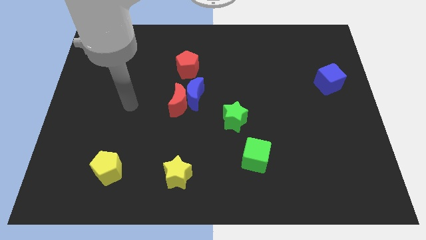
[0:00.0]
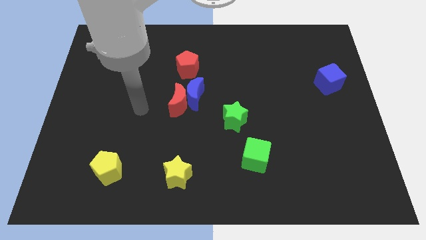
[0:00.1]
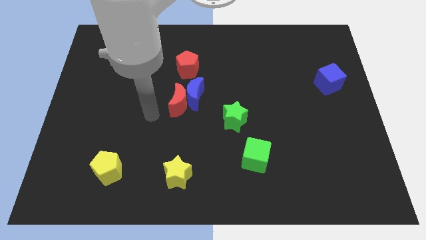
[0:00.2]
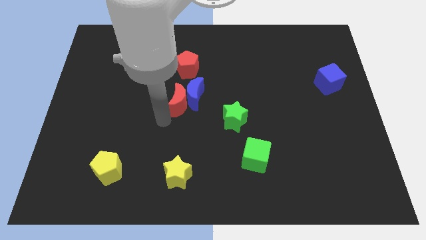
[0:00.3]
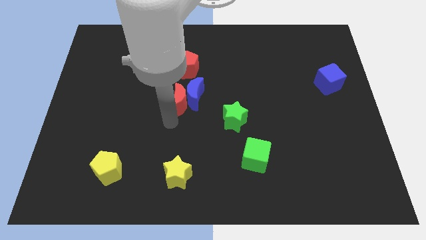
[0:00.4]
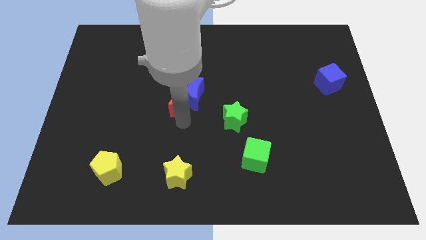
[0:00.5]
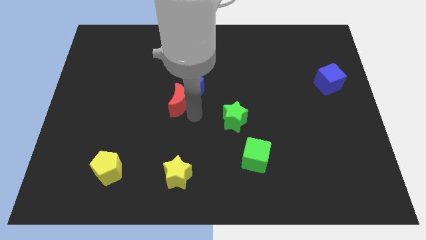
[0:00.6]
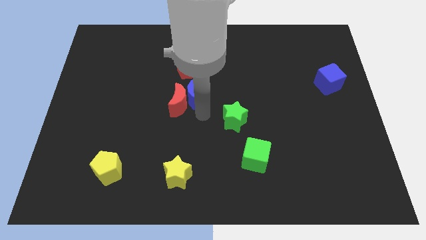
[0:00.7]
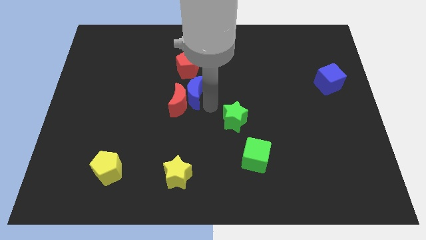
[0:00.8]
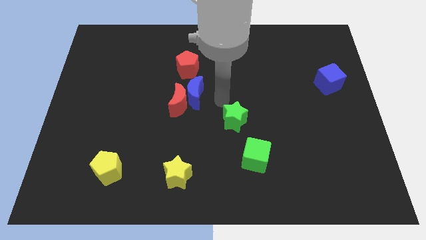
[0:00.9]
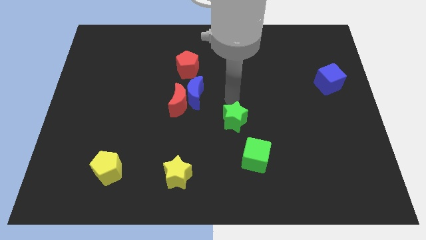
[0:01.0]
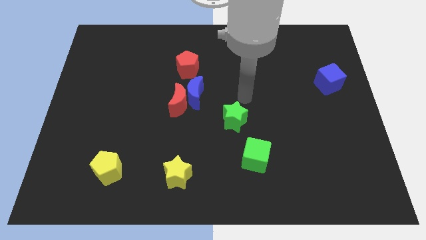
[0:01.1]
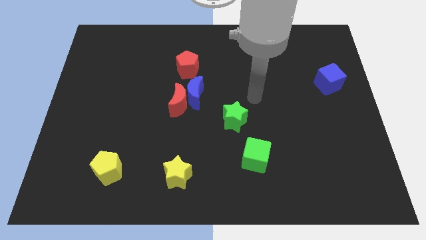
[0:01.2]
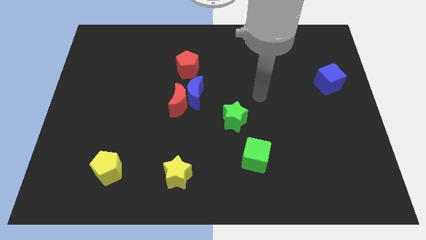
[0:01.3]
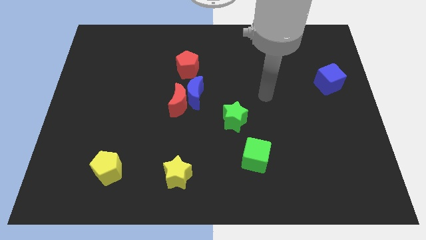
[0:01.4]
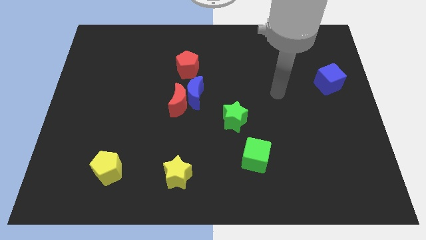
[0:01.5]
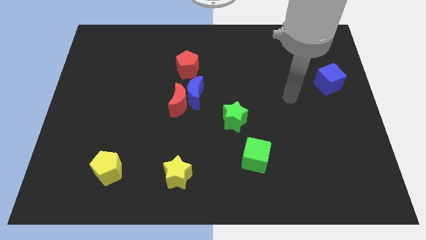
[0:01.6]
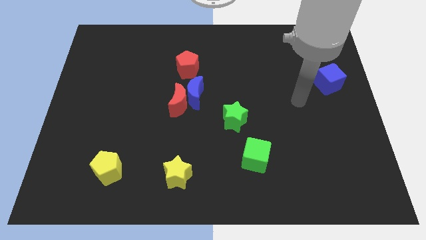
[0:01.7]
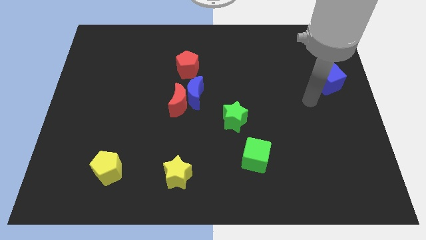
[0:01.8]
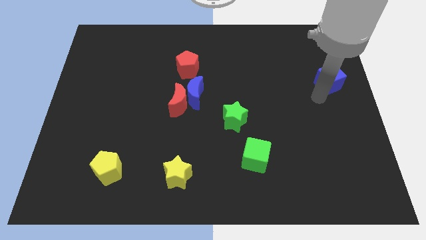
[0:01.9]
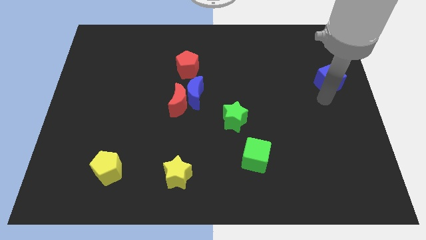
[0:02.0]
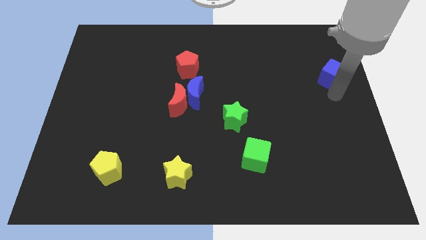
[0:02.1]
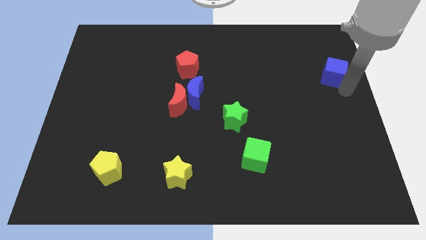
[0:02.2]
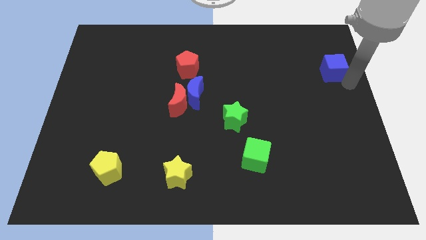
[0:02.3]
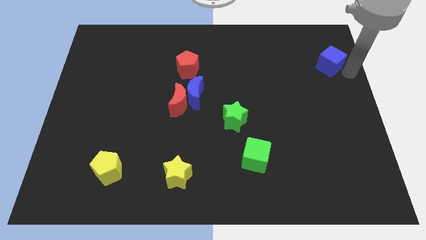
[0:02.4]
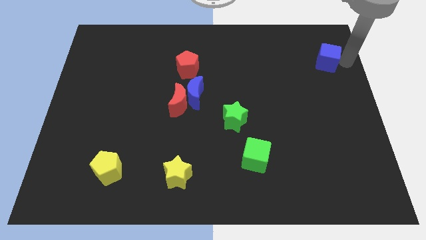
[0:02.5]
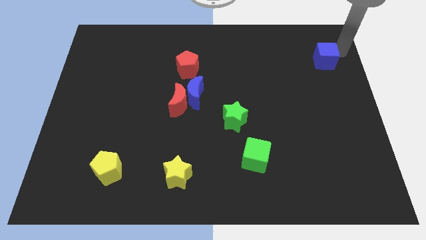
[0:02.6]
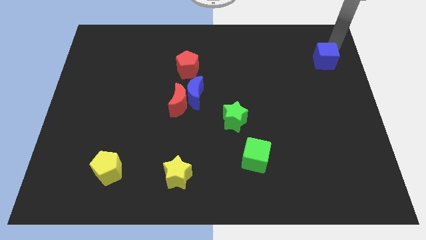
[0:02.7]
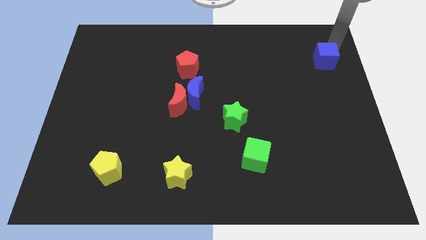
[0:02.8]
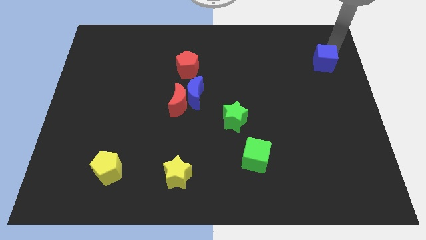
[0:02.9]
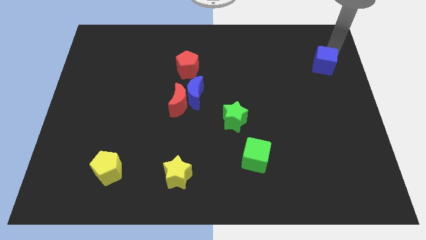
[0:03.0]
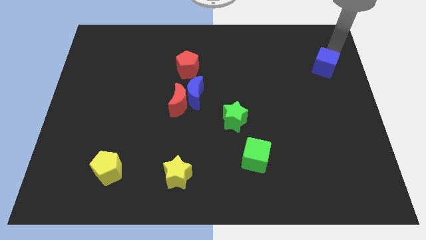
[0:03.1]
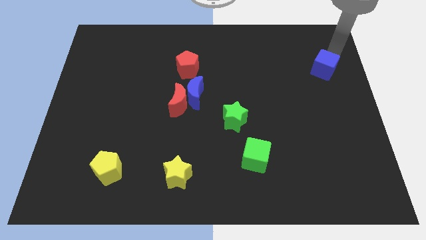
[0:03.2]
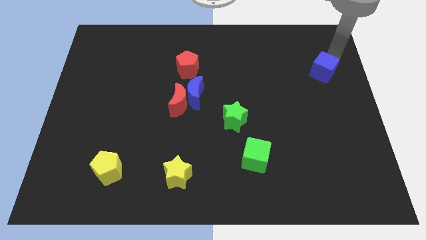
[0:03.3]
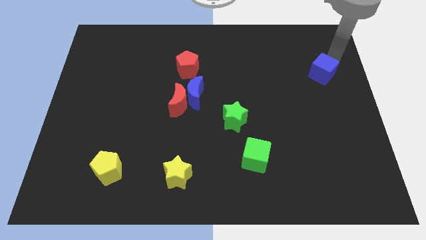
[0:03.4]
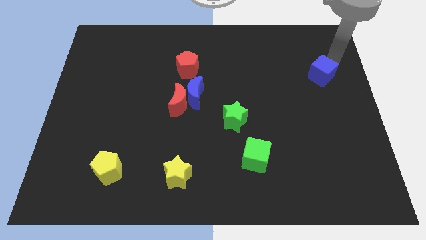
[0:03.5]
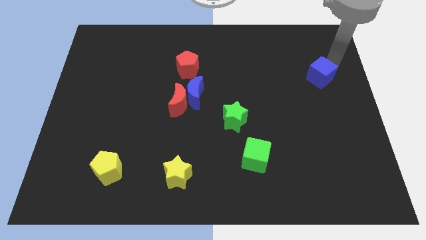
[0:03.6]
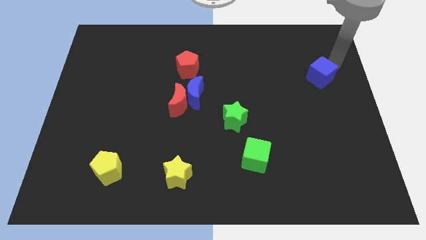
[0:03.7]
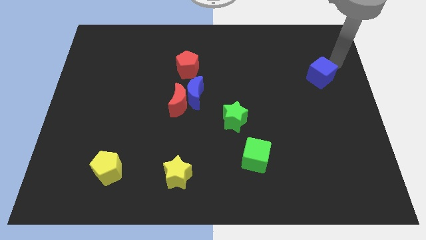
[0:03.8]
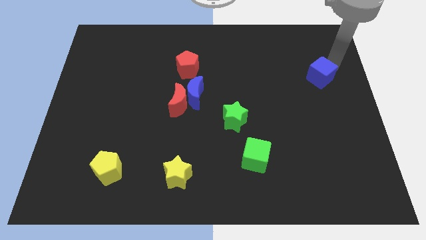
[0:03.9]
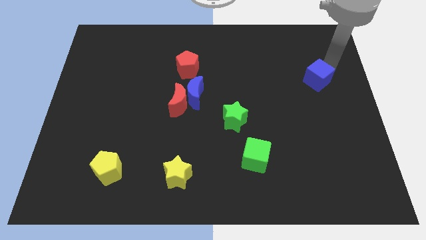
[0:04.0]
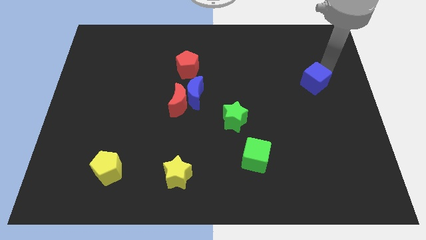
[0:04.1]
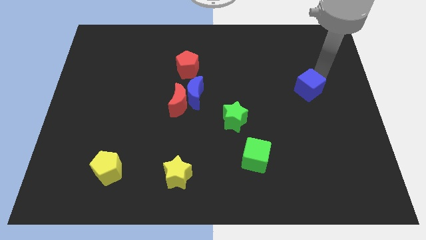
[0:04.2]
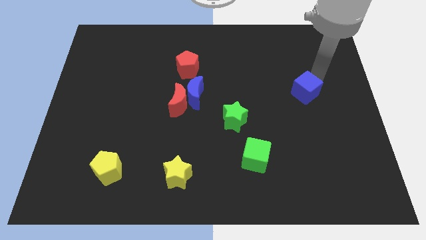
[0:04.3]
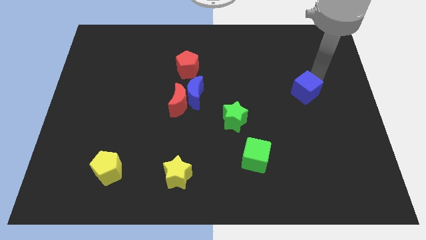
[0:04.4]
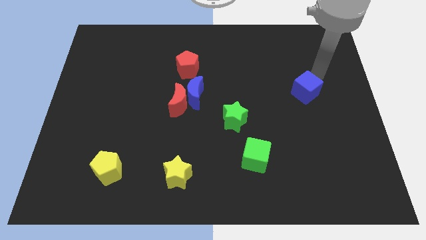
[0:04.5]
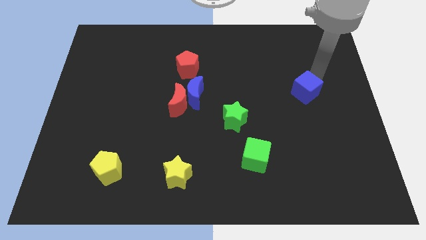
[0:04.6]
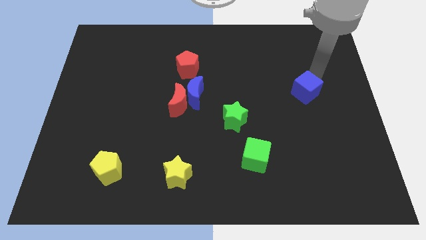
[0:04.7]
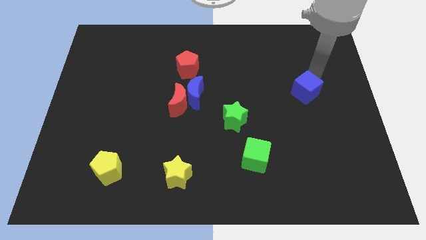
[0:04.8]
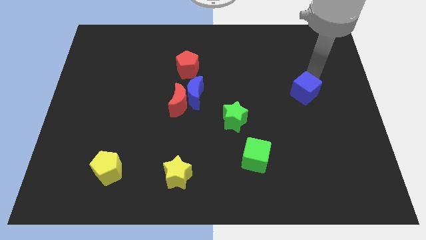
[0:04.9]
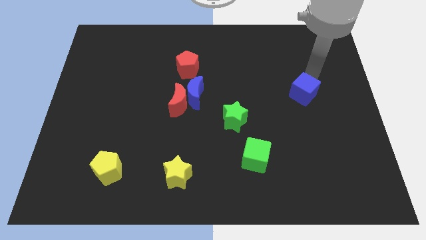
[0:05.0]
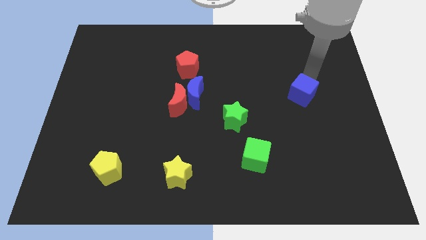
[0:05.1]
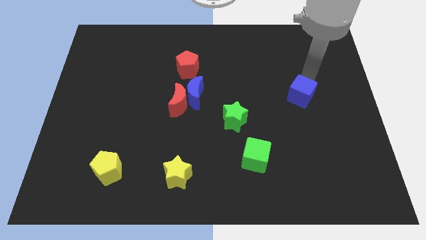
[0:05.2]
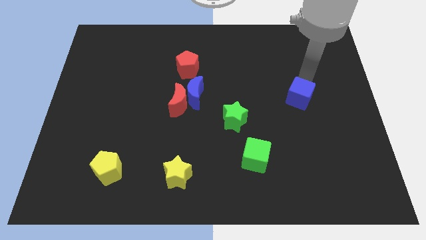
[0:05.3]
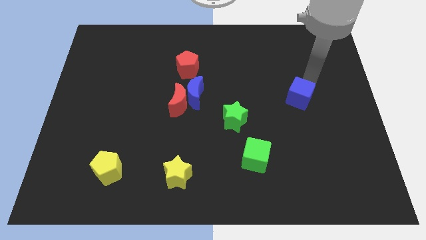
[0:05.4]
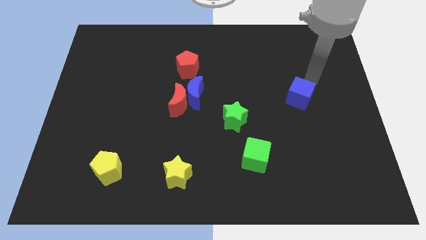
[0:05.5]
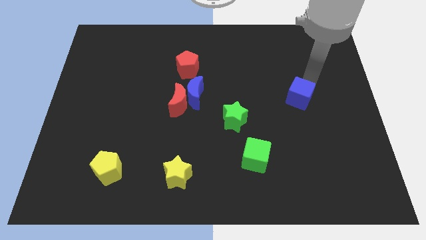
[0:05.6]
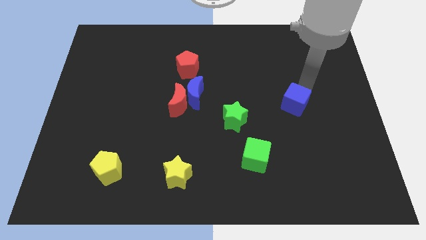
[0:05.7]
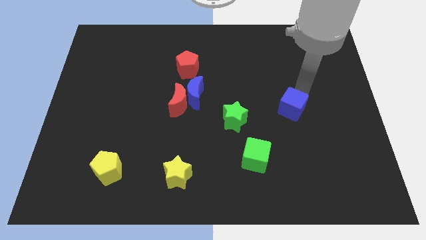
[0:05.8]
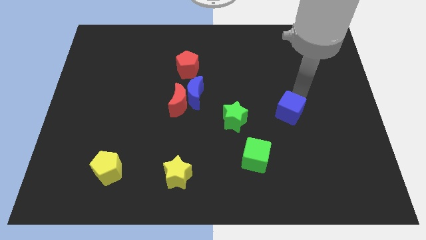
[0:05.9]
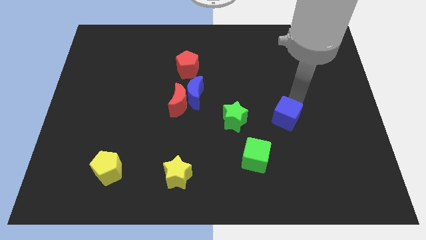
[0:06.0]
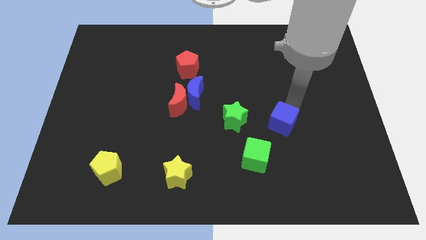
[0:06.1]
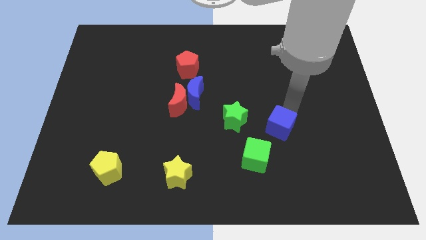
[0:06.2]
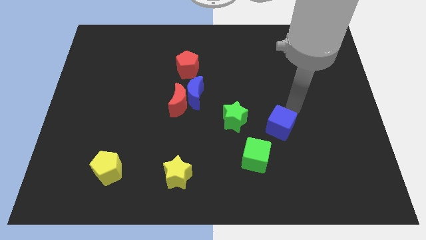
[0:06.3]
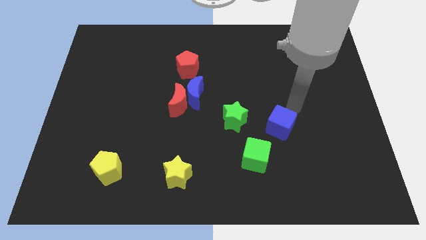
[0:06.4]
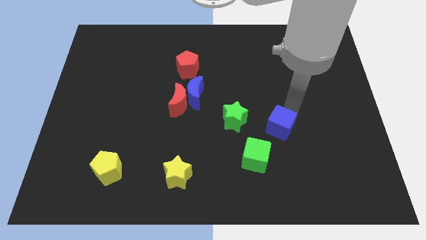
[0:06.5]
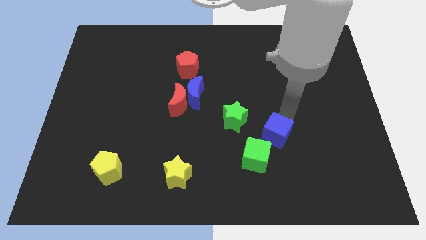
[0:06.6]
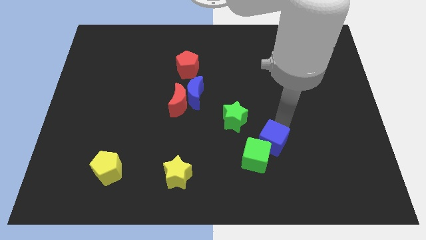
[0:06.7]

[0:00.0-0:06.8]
move the blue cube to the green cube
